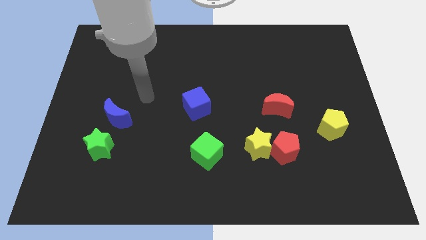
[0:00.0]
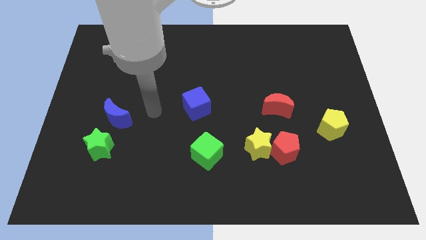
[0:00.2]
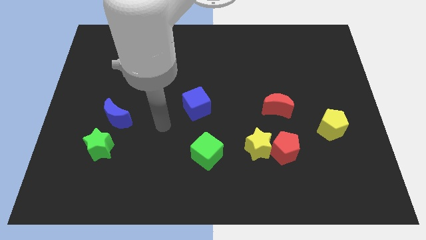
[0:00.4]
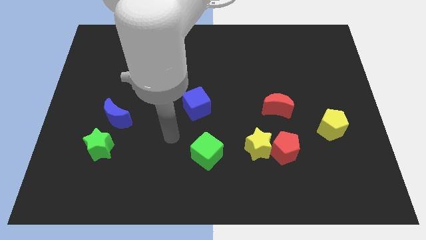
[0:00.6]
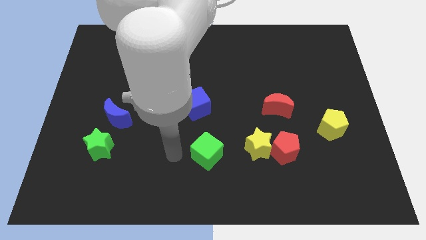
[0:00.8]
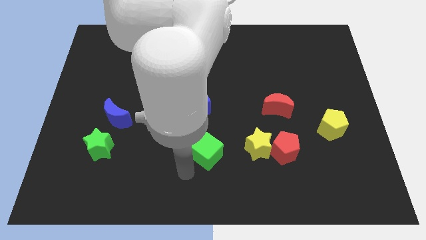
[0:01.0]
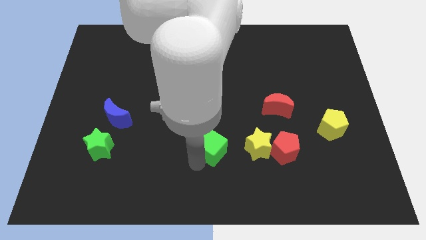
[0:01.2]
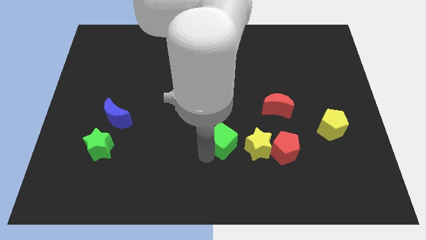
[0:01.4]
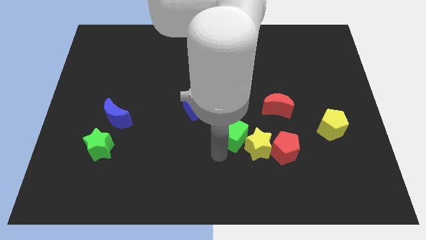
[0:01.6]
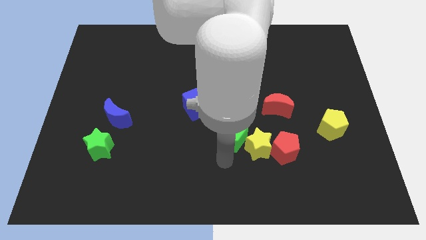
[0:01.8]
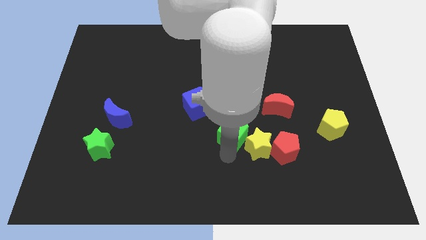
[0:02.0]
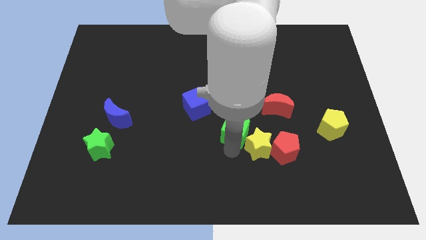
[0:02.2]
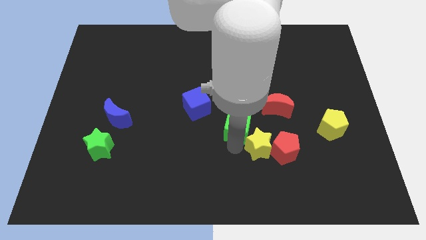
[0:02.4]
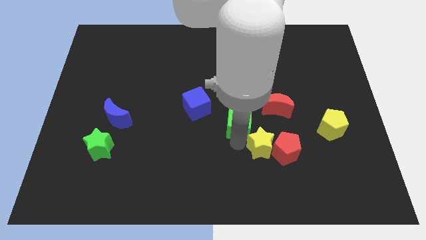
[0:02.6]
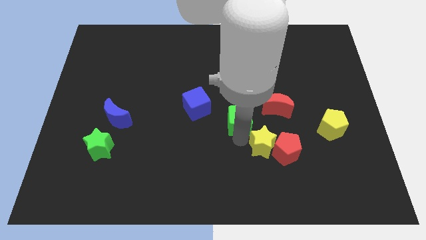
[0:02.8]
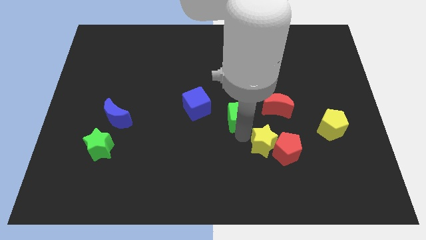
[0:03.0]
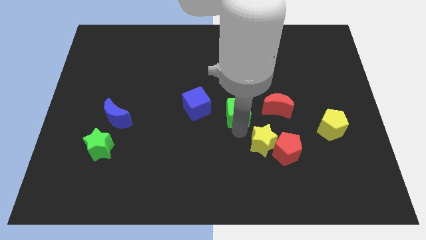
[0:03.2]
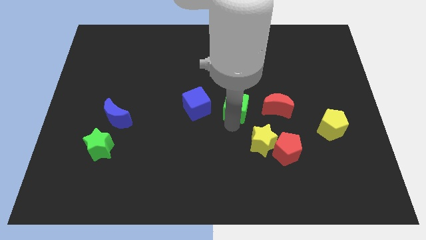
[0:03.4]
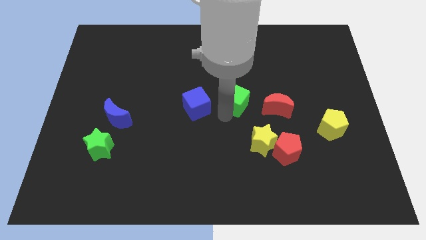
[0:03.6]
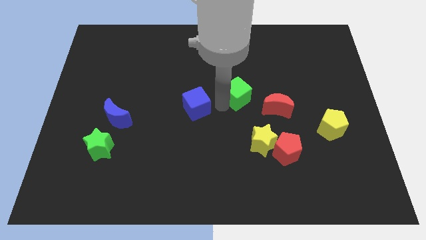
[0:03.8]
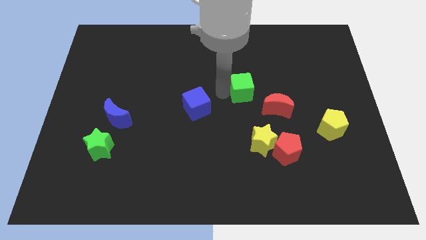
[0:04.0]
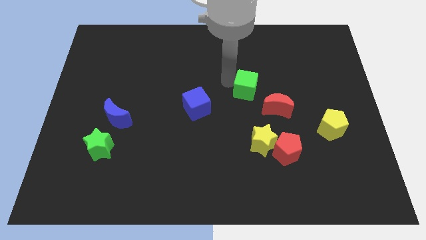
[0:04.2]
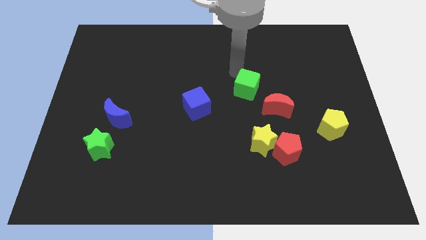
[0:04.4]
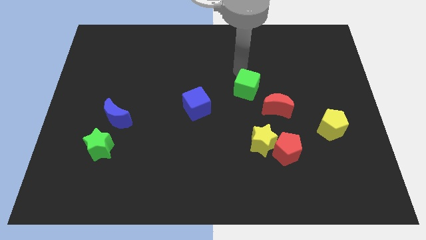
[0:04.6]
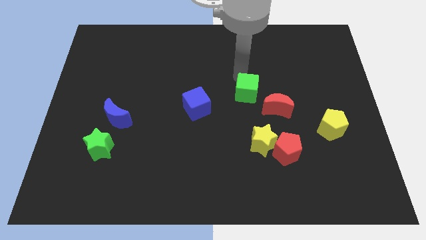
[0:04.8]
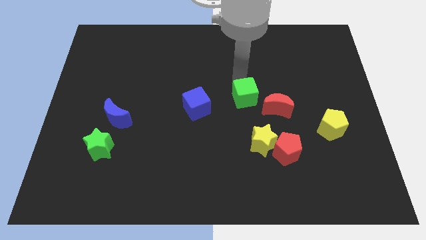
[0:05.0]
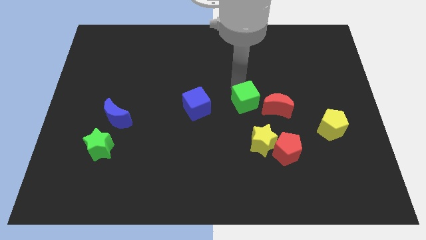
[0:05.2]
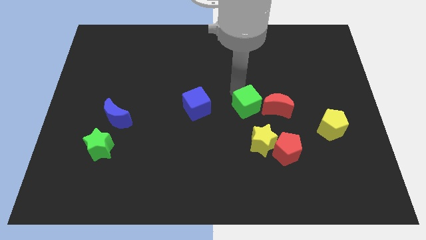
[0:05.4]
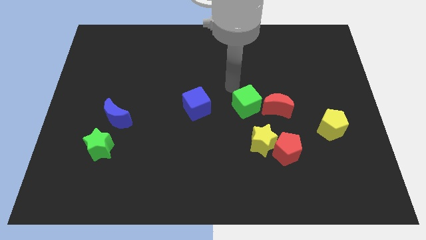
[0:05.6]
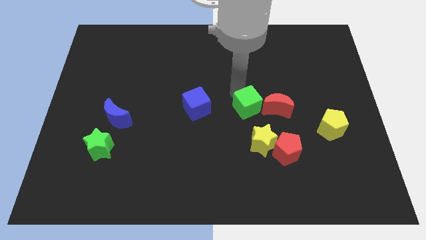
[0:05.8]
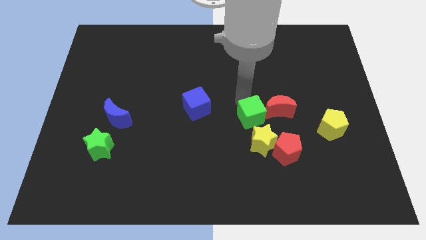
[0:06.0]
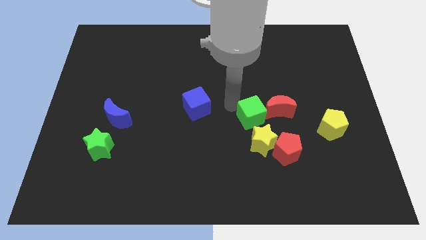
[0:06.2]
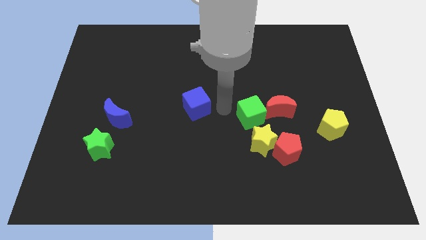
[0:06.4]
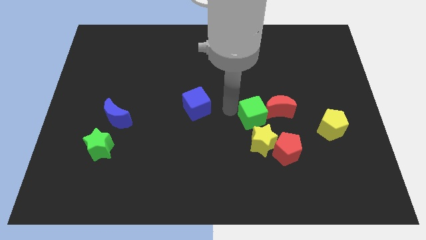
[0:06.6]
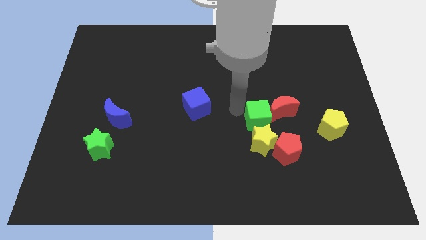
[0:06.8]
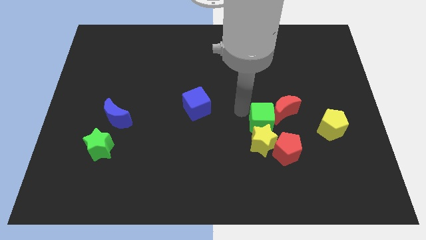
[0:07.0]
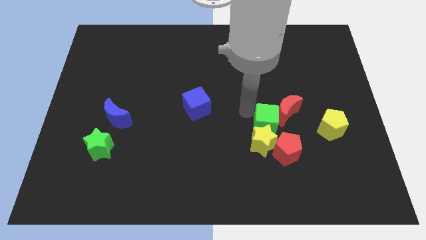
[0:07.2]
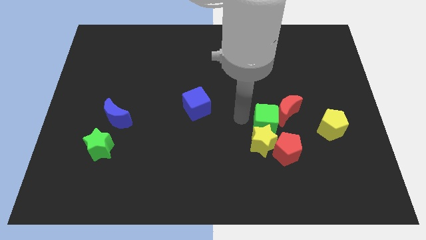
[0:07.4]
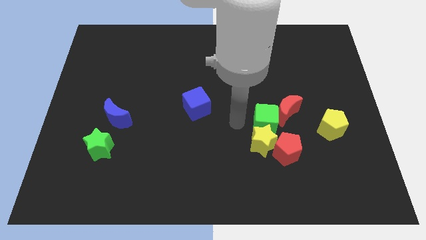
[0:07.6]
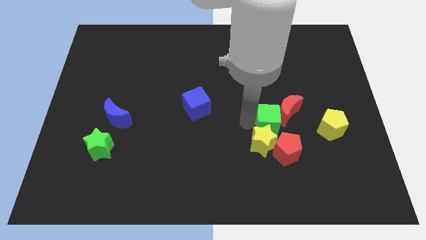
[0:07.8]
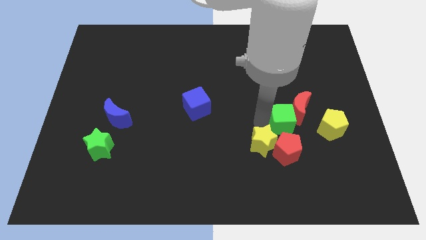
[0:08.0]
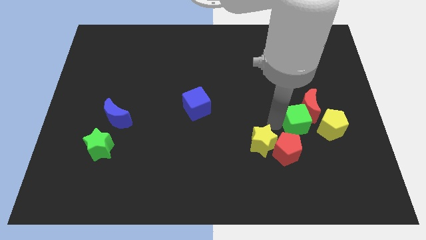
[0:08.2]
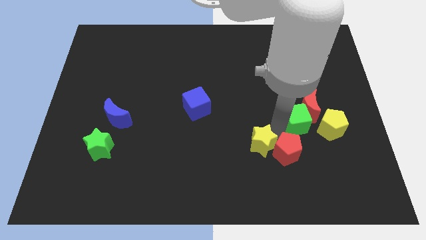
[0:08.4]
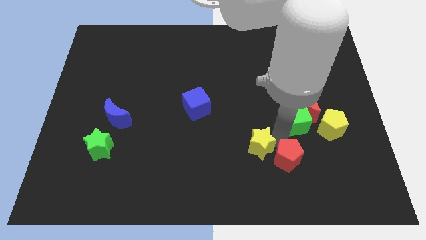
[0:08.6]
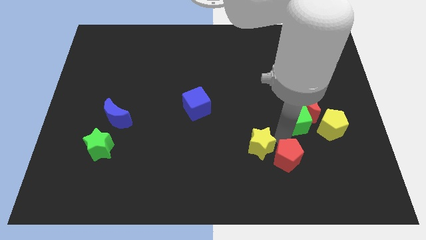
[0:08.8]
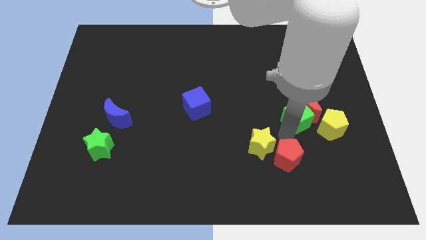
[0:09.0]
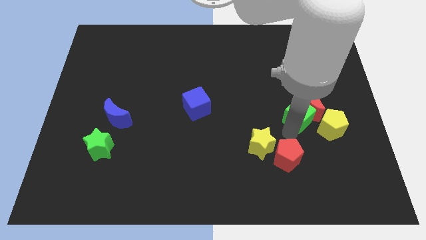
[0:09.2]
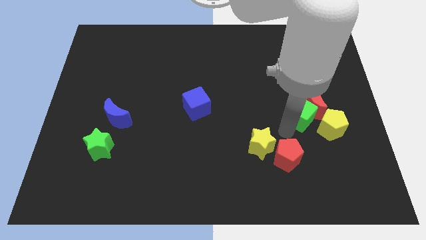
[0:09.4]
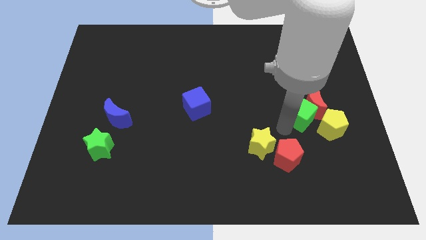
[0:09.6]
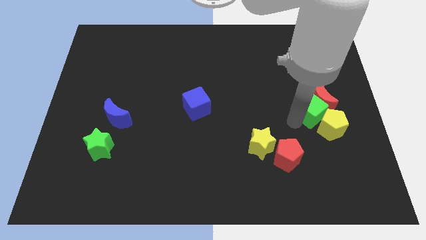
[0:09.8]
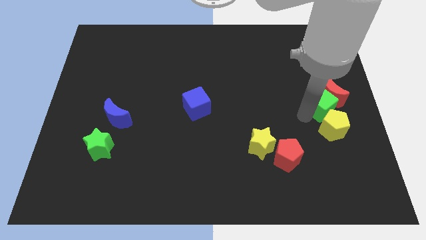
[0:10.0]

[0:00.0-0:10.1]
put the green cube to the right side
